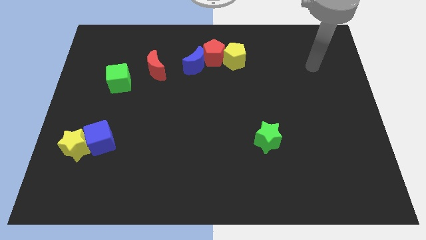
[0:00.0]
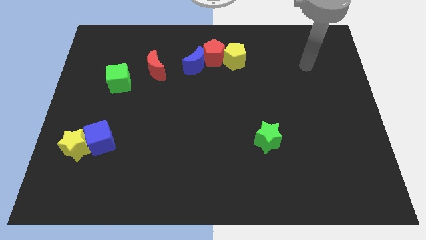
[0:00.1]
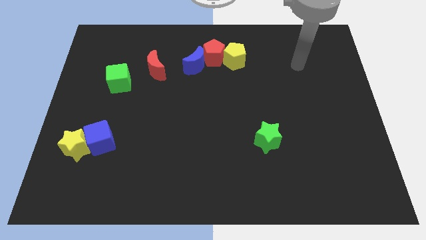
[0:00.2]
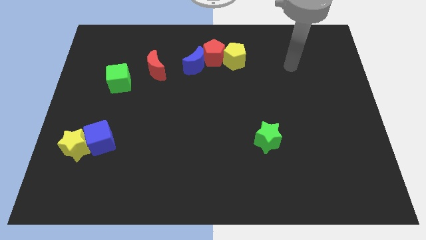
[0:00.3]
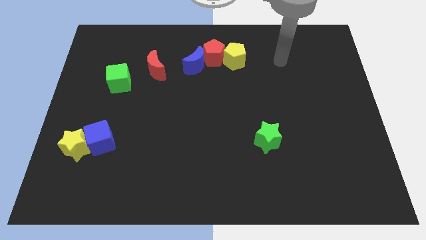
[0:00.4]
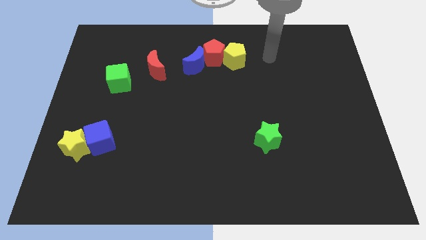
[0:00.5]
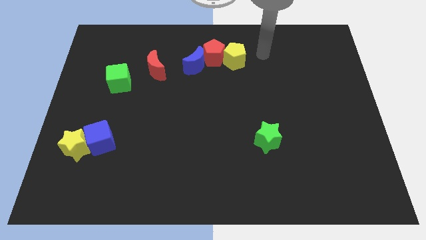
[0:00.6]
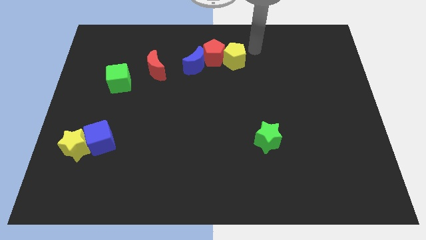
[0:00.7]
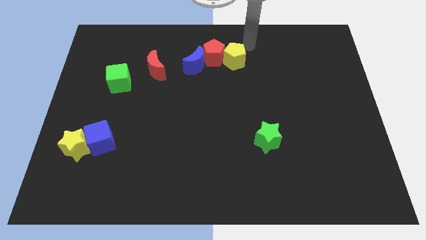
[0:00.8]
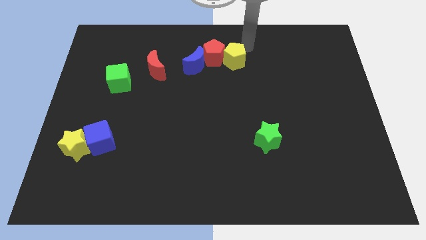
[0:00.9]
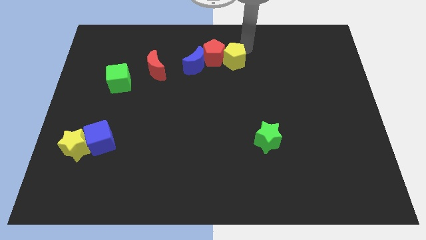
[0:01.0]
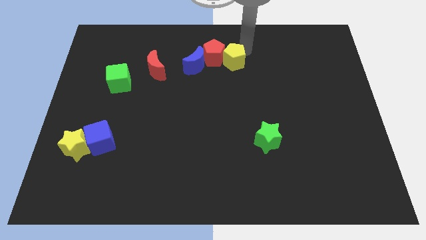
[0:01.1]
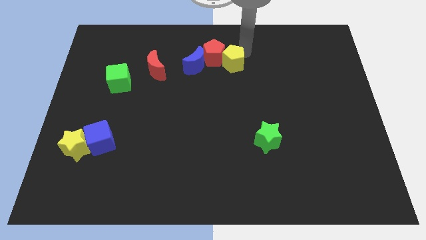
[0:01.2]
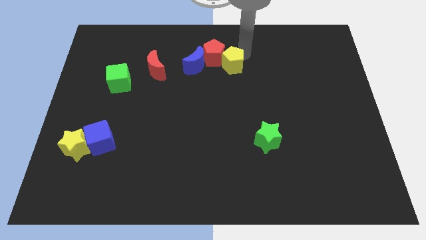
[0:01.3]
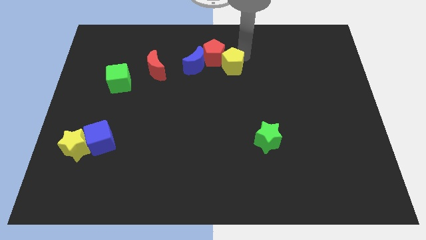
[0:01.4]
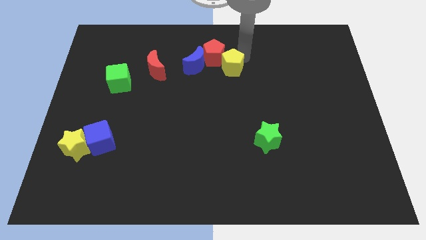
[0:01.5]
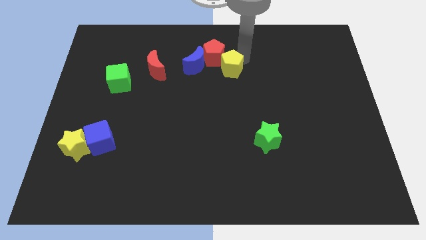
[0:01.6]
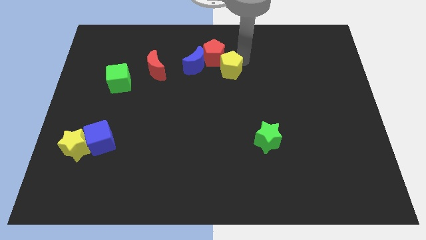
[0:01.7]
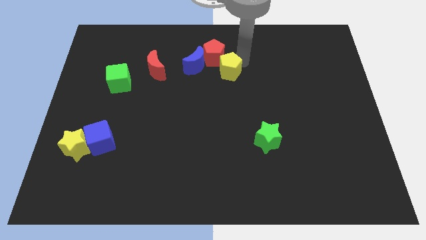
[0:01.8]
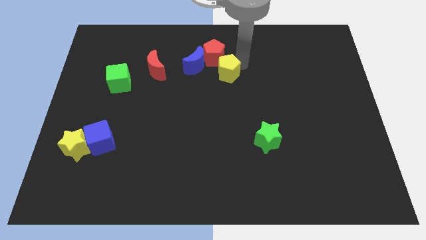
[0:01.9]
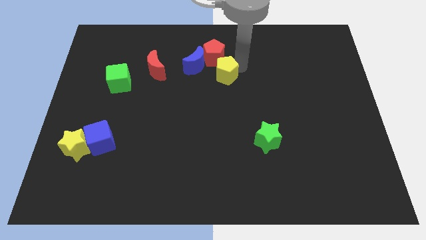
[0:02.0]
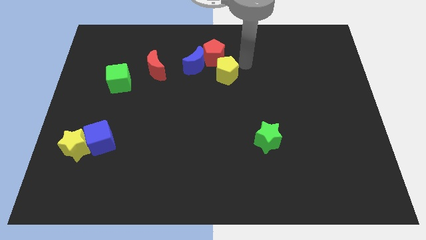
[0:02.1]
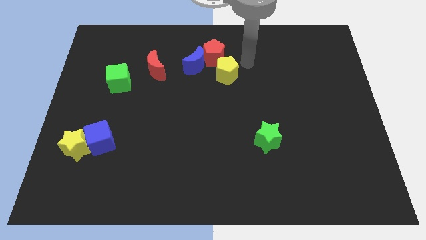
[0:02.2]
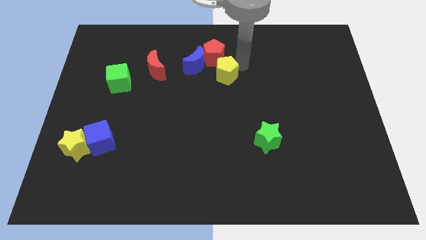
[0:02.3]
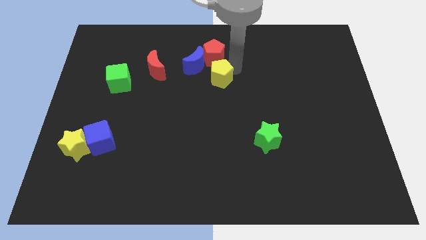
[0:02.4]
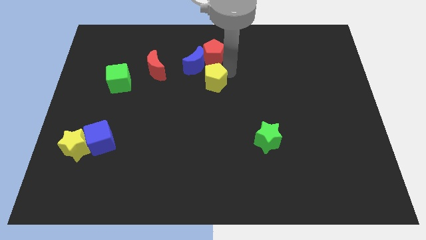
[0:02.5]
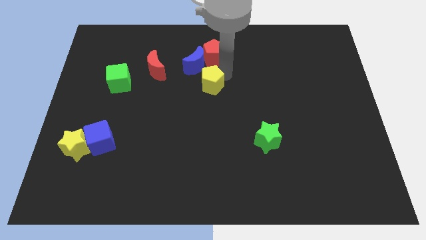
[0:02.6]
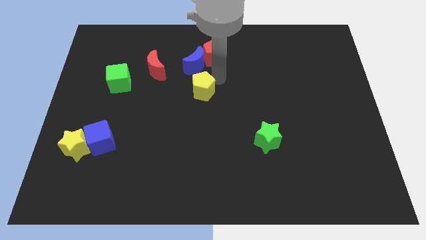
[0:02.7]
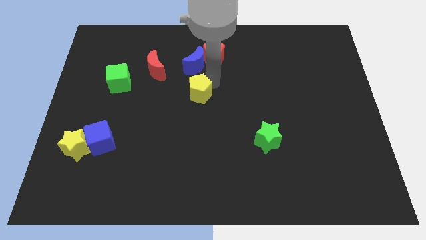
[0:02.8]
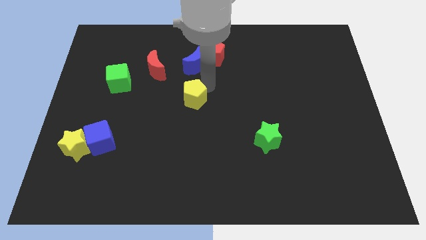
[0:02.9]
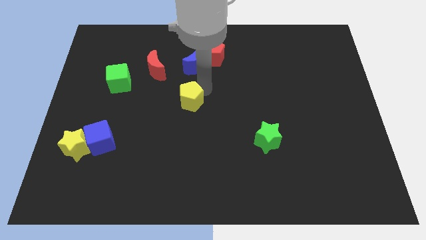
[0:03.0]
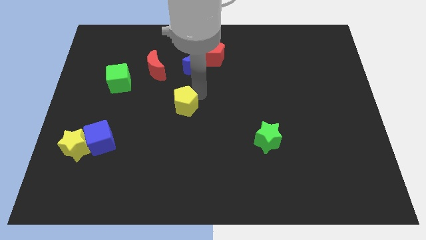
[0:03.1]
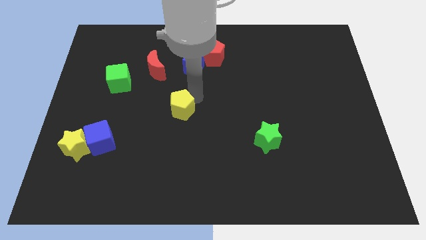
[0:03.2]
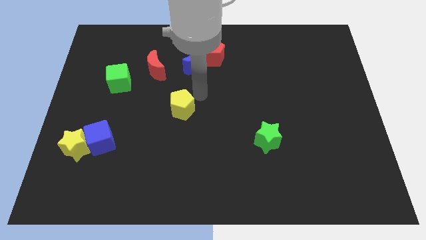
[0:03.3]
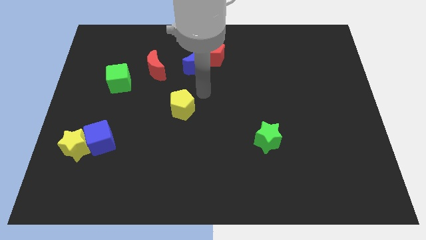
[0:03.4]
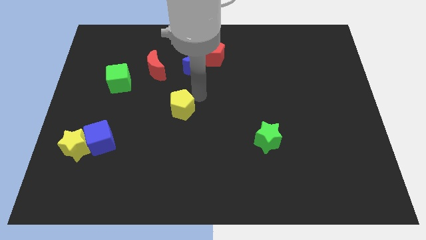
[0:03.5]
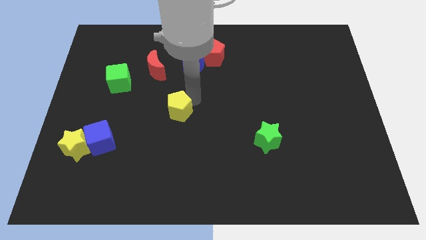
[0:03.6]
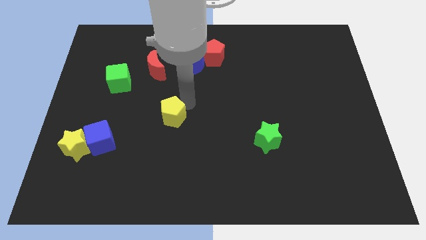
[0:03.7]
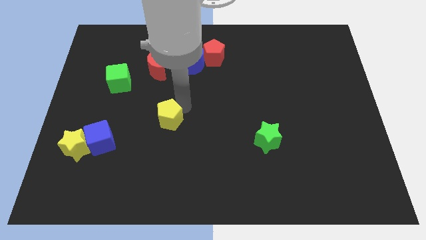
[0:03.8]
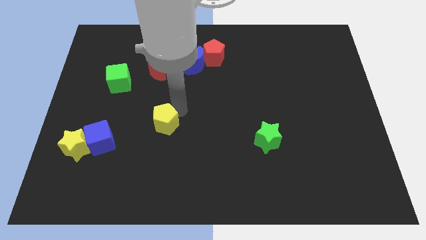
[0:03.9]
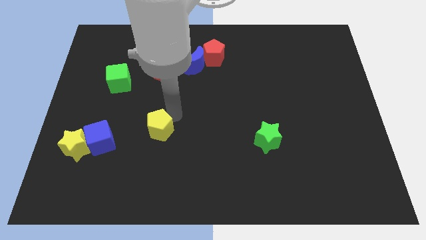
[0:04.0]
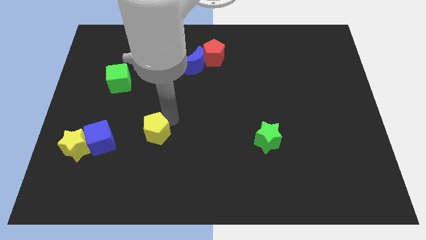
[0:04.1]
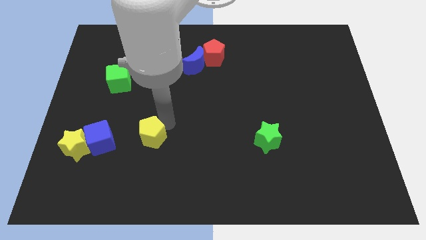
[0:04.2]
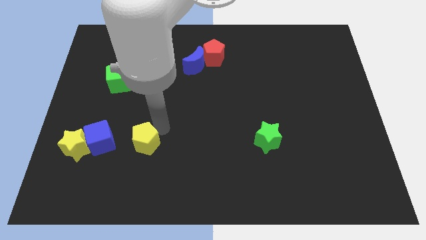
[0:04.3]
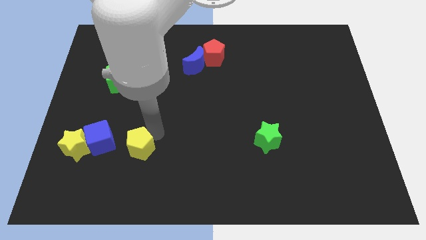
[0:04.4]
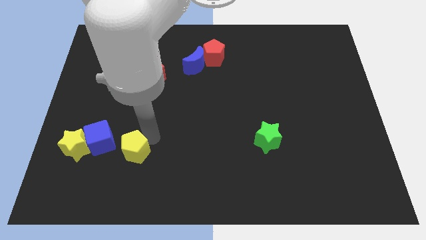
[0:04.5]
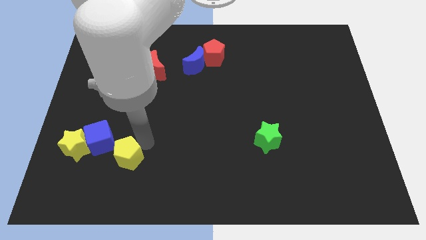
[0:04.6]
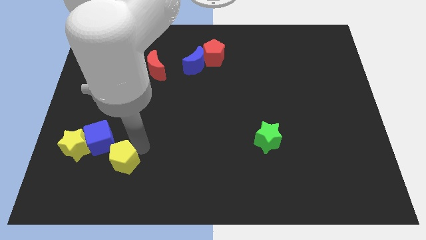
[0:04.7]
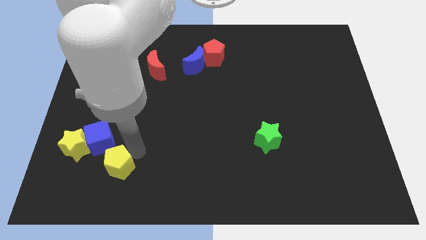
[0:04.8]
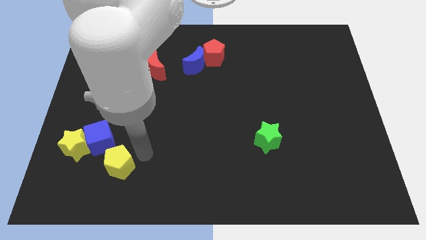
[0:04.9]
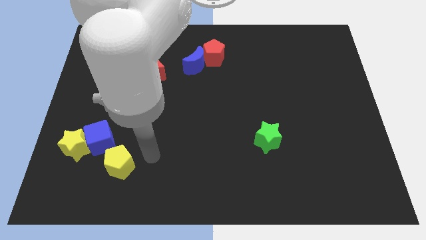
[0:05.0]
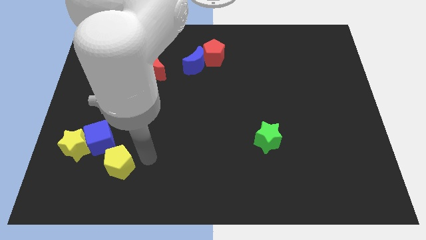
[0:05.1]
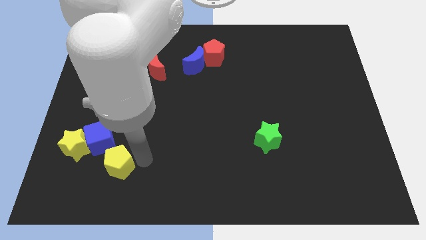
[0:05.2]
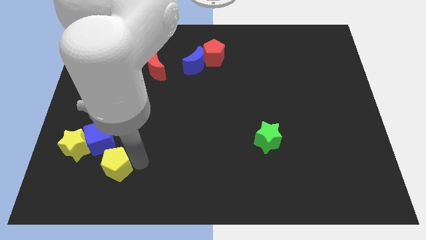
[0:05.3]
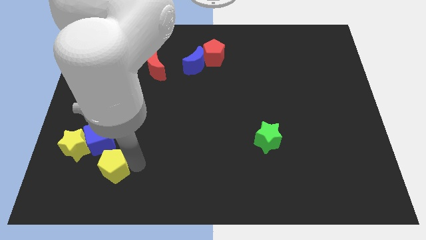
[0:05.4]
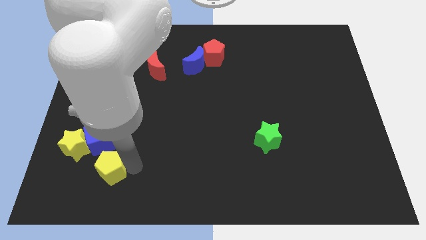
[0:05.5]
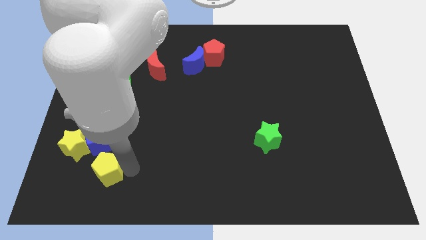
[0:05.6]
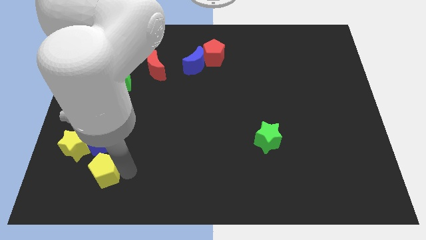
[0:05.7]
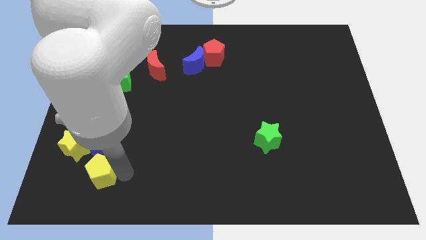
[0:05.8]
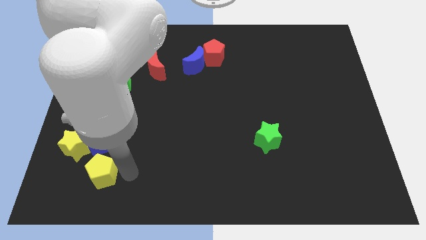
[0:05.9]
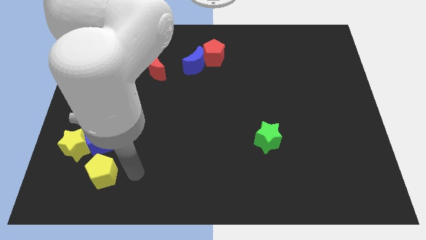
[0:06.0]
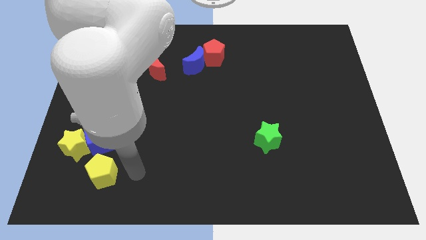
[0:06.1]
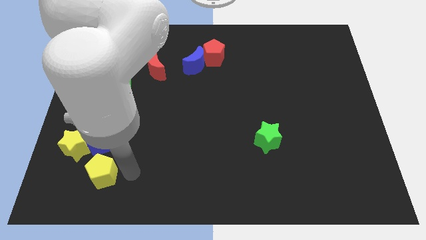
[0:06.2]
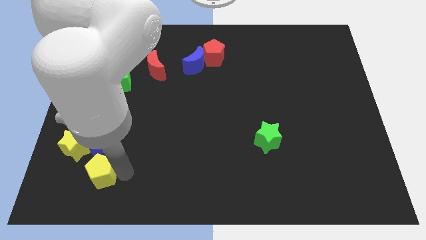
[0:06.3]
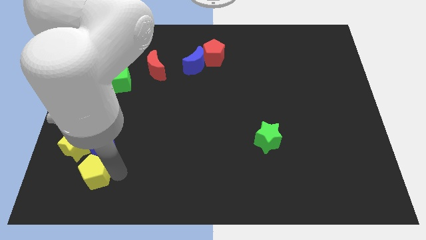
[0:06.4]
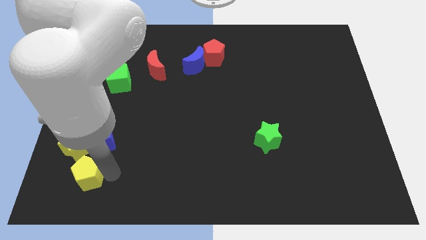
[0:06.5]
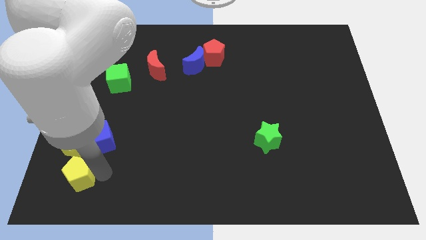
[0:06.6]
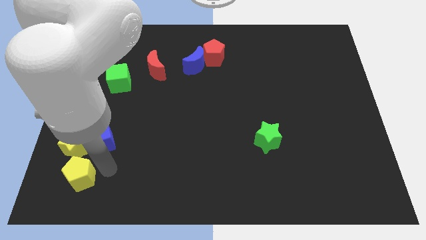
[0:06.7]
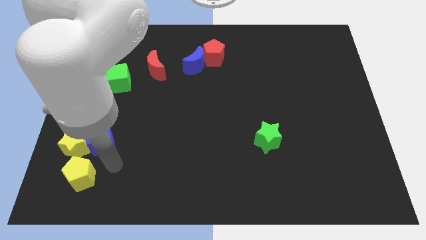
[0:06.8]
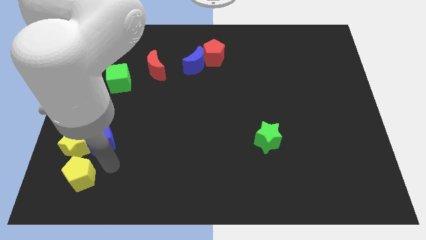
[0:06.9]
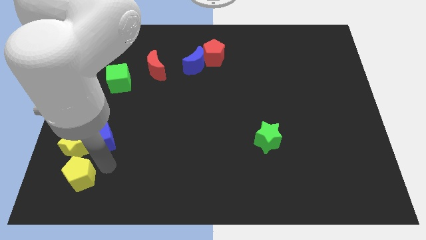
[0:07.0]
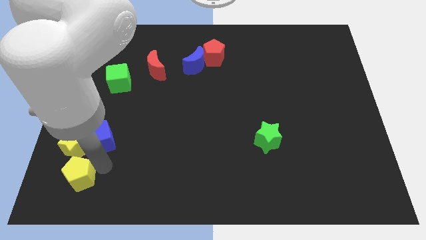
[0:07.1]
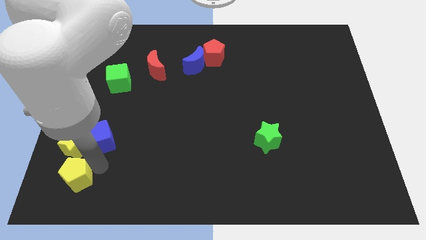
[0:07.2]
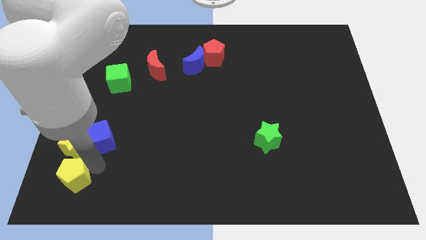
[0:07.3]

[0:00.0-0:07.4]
put the yellow pentagon to the bottom left of the board
